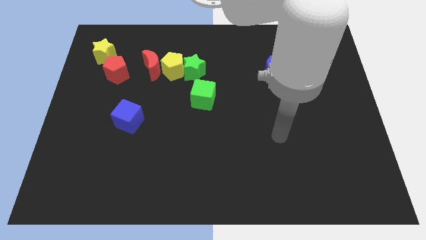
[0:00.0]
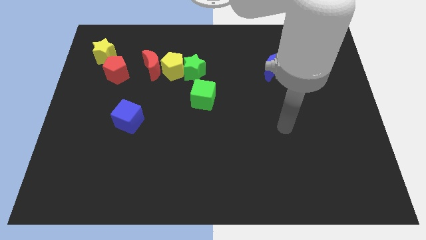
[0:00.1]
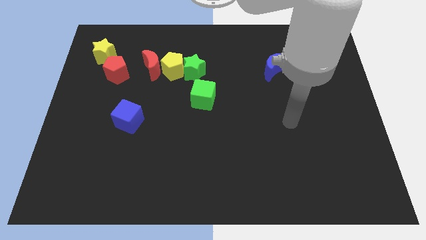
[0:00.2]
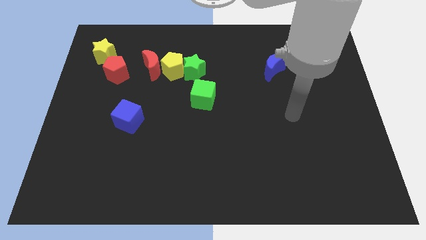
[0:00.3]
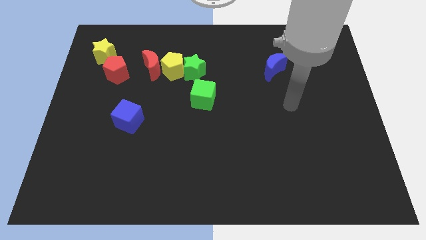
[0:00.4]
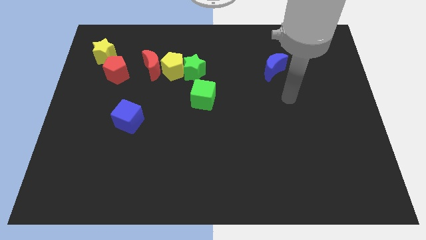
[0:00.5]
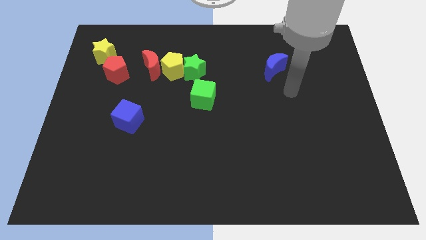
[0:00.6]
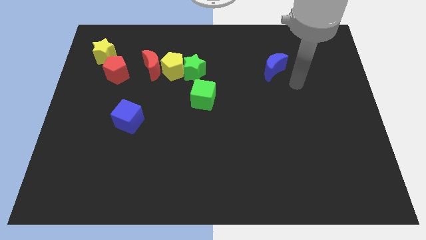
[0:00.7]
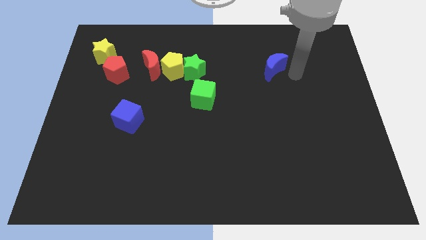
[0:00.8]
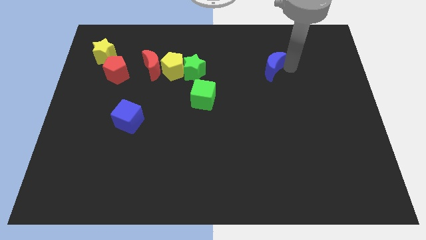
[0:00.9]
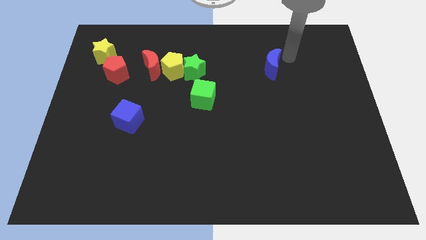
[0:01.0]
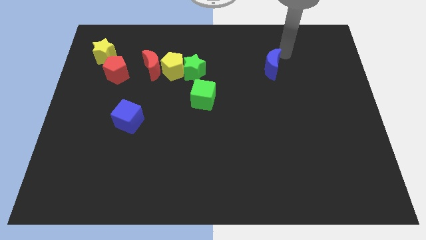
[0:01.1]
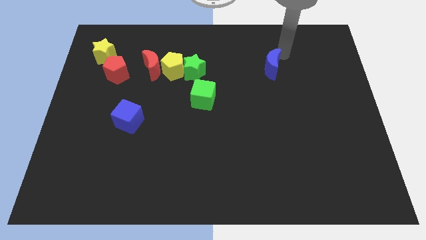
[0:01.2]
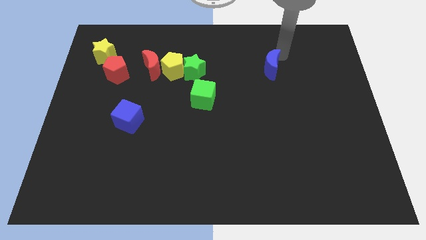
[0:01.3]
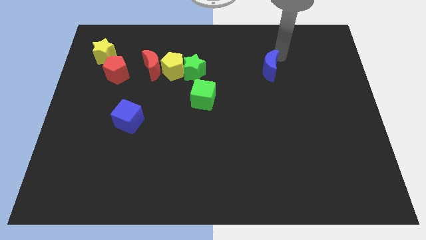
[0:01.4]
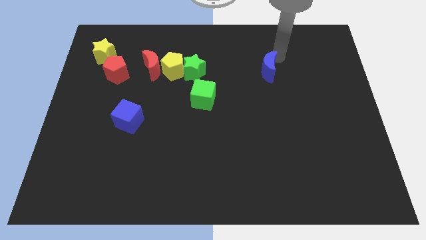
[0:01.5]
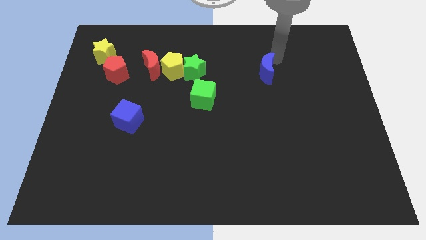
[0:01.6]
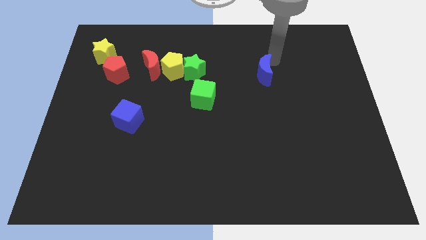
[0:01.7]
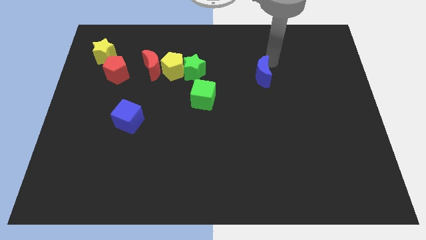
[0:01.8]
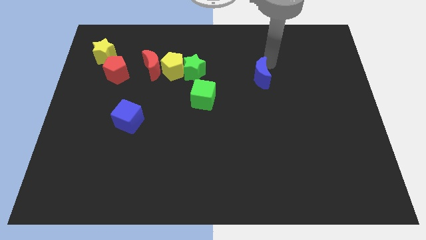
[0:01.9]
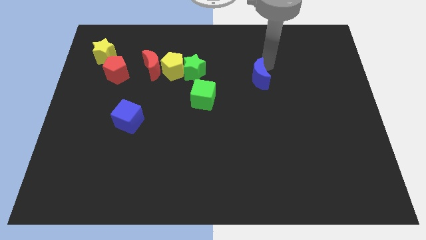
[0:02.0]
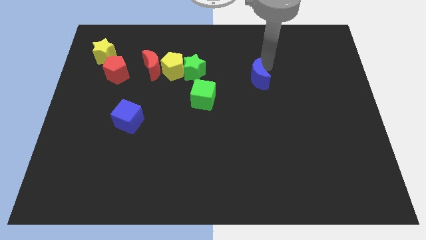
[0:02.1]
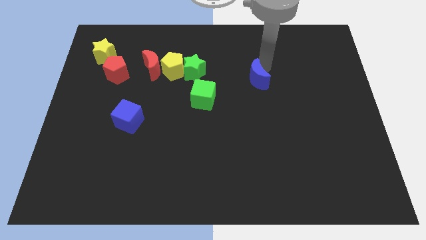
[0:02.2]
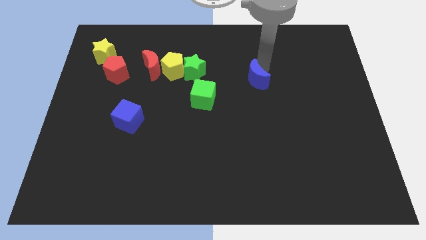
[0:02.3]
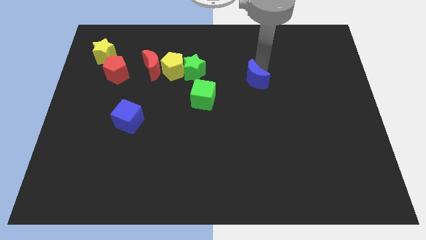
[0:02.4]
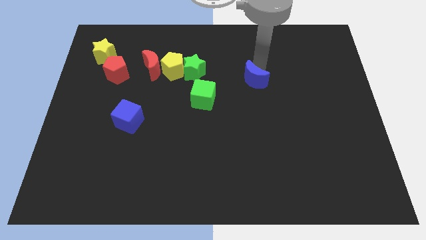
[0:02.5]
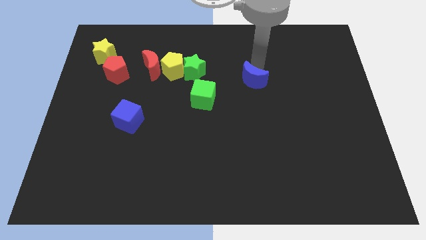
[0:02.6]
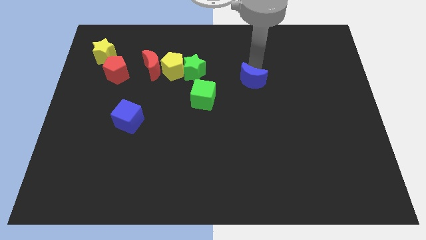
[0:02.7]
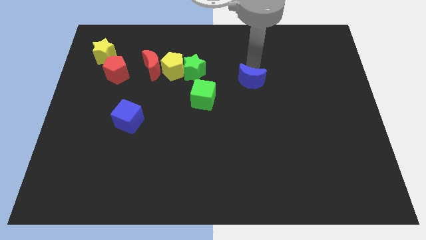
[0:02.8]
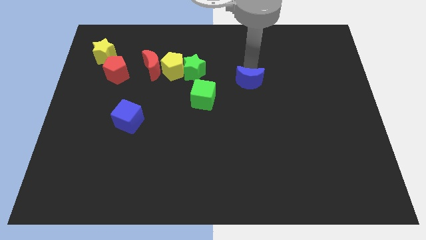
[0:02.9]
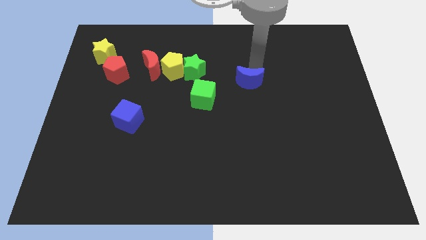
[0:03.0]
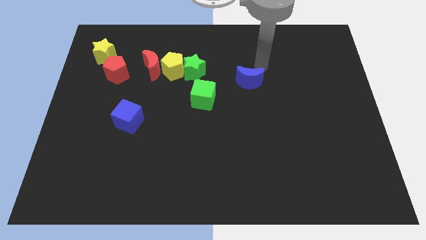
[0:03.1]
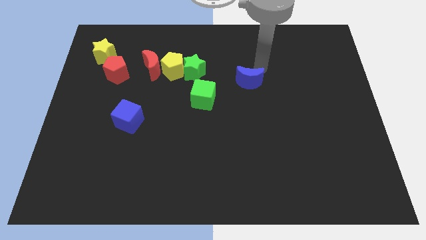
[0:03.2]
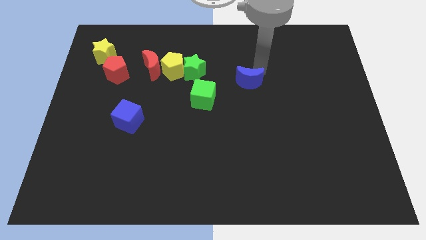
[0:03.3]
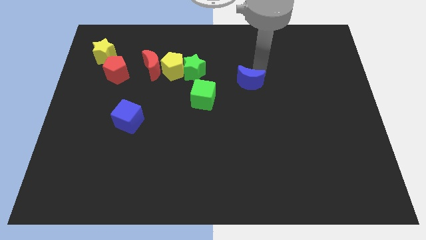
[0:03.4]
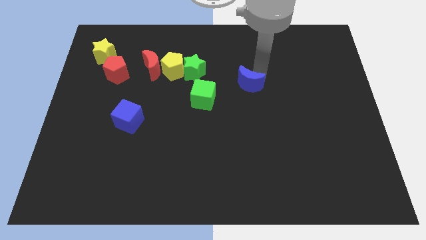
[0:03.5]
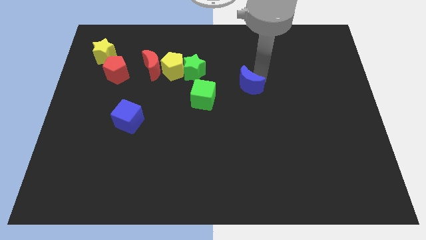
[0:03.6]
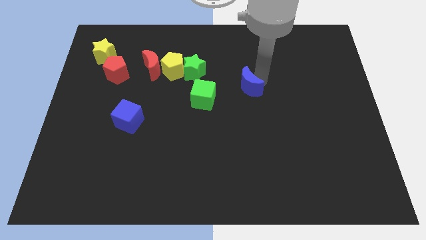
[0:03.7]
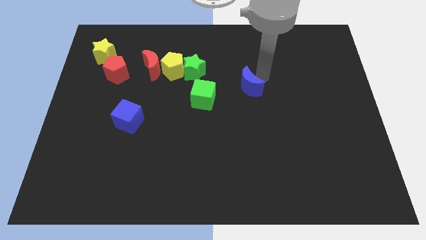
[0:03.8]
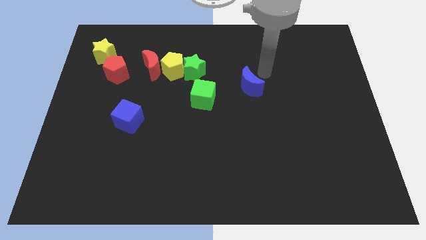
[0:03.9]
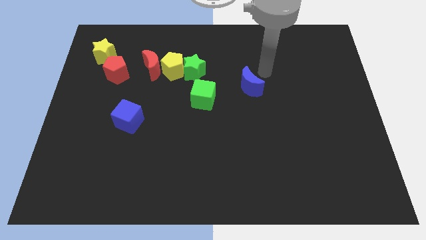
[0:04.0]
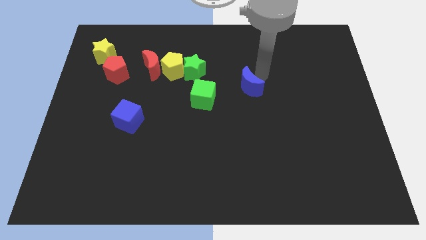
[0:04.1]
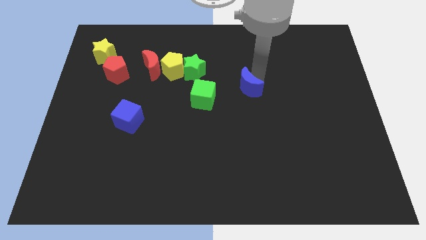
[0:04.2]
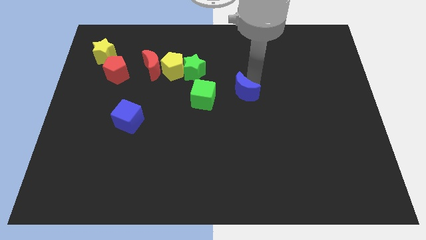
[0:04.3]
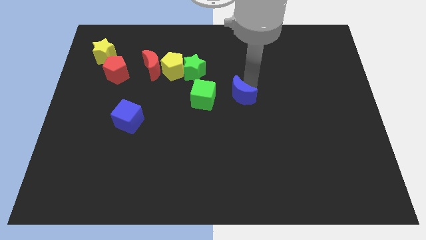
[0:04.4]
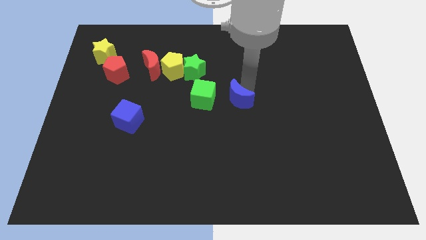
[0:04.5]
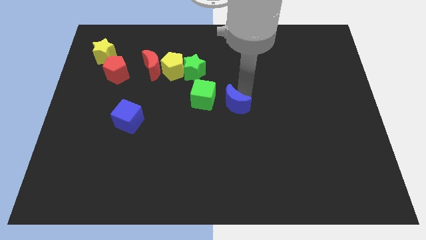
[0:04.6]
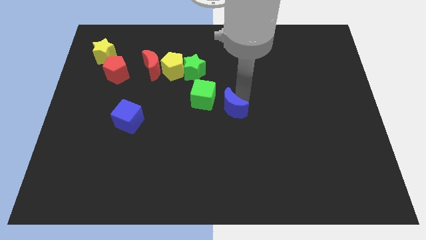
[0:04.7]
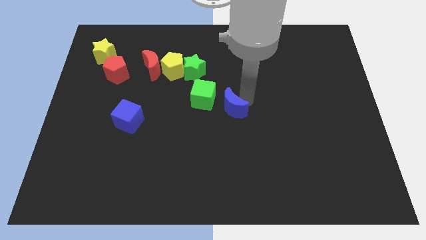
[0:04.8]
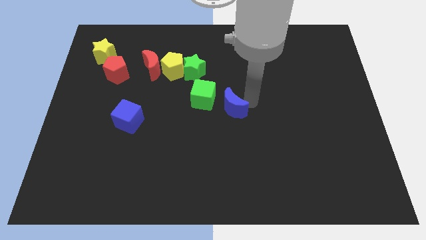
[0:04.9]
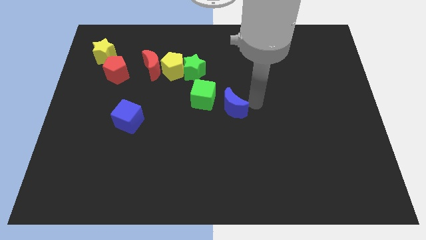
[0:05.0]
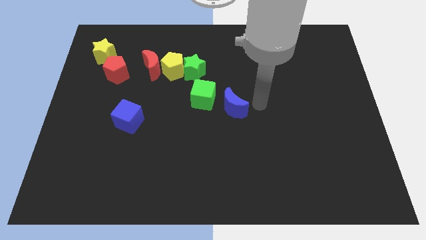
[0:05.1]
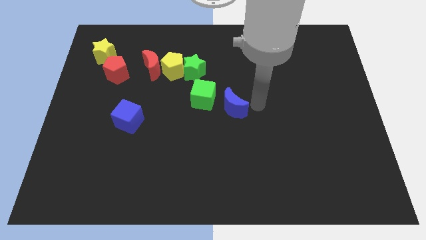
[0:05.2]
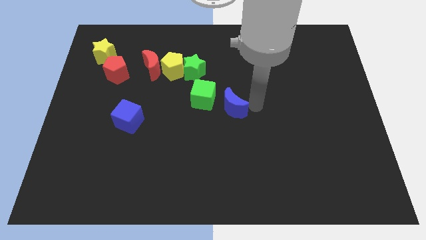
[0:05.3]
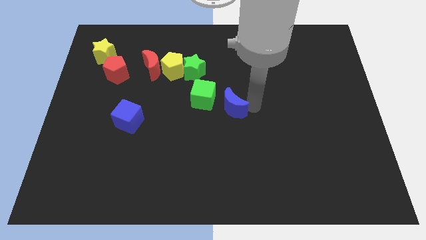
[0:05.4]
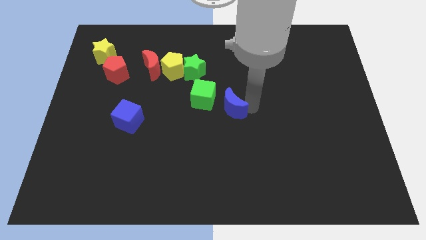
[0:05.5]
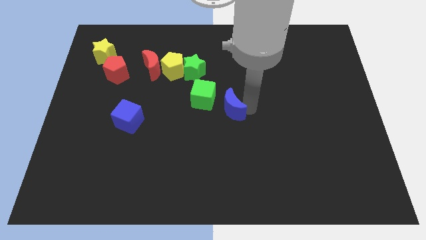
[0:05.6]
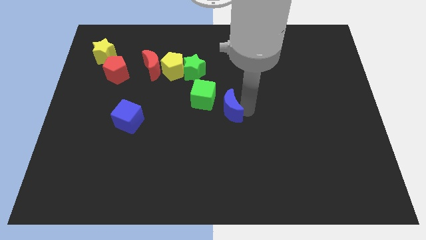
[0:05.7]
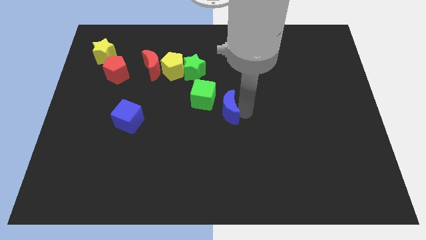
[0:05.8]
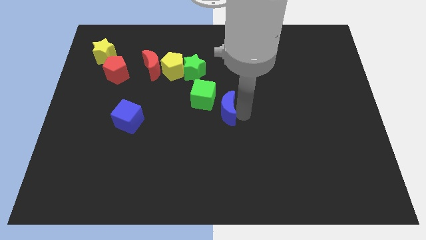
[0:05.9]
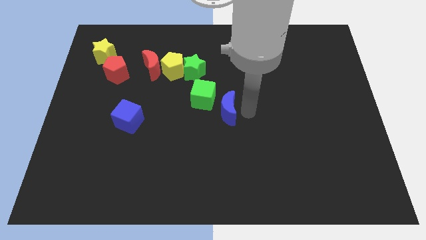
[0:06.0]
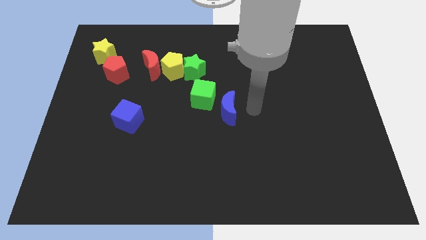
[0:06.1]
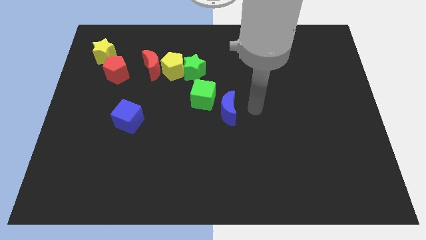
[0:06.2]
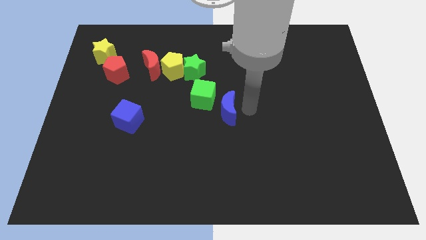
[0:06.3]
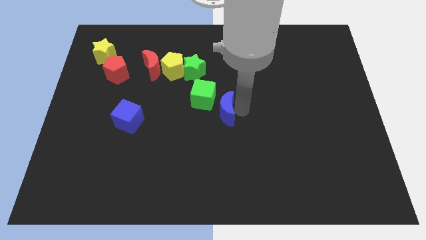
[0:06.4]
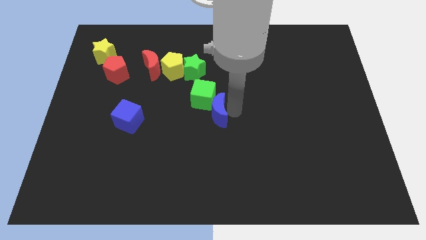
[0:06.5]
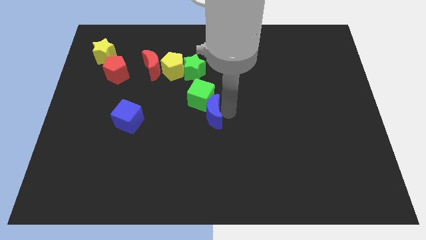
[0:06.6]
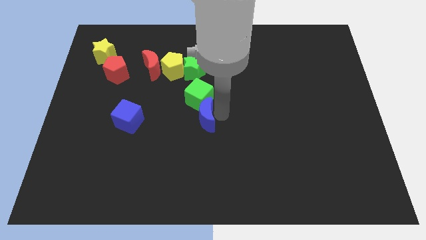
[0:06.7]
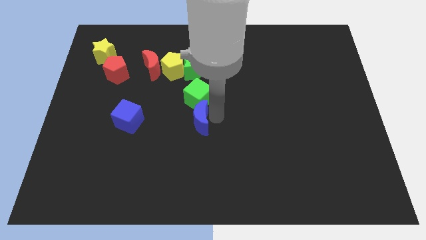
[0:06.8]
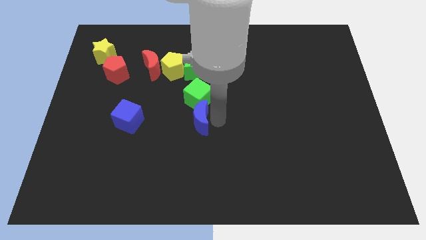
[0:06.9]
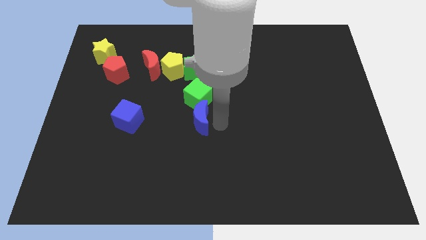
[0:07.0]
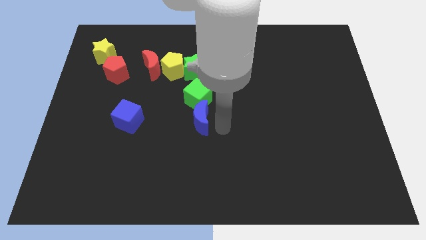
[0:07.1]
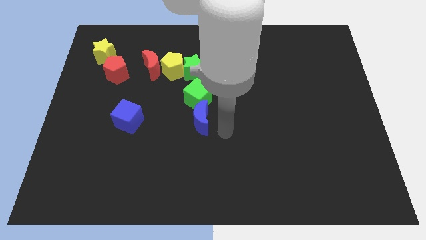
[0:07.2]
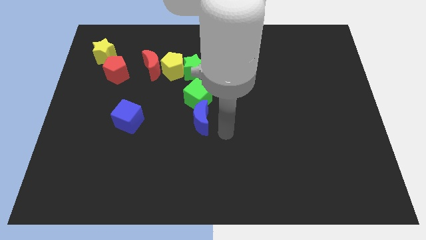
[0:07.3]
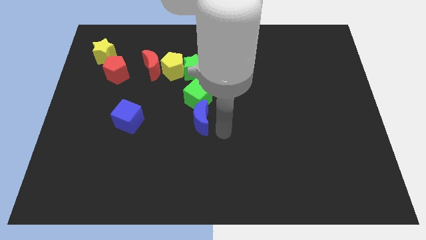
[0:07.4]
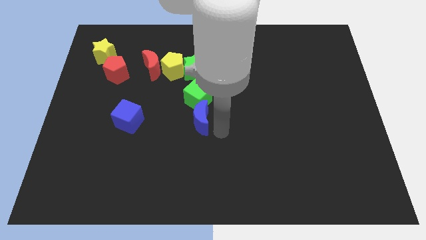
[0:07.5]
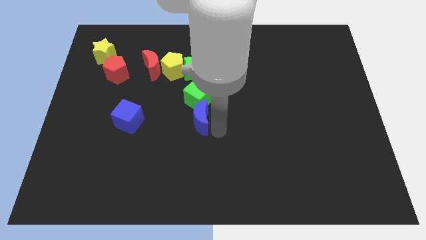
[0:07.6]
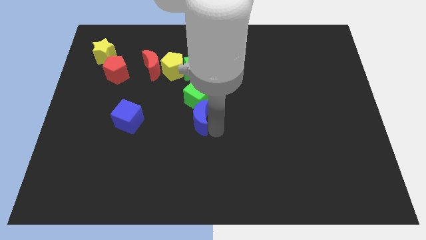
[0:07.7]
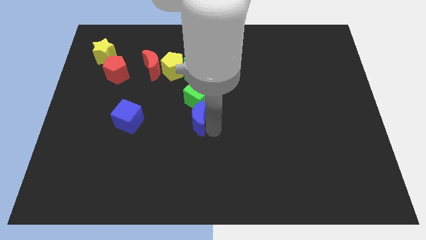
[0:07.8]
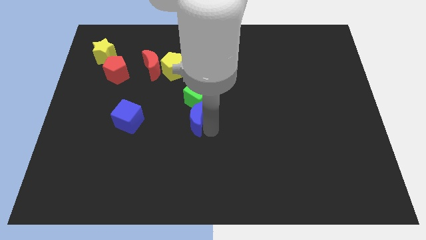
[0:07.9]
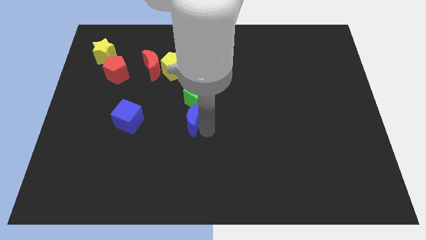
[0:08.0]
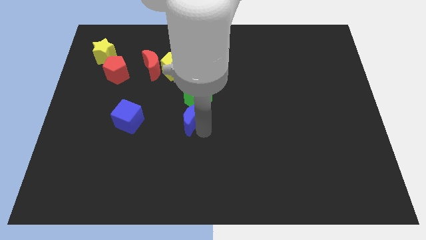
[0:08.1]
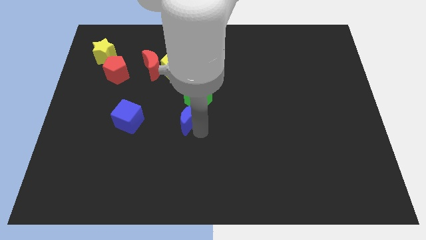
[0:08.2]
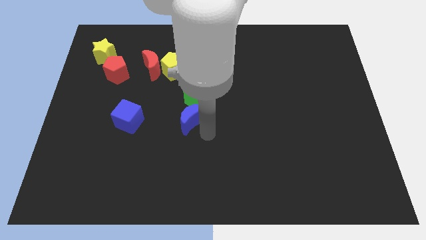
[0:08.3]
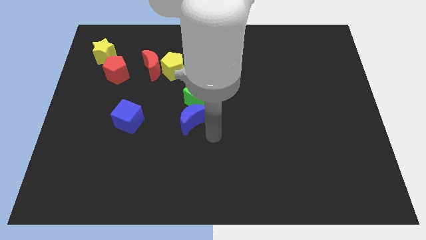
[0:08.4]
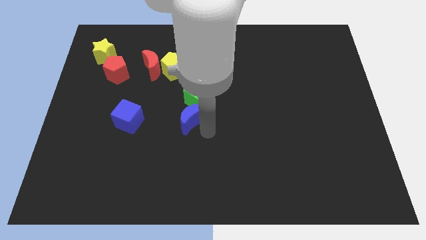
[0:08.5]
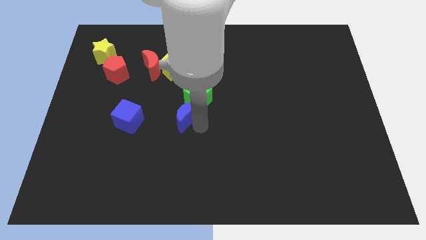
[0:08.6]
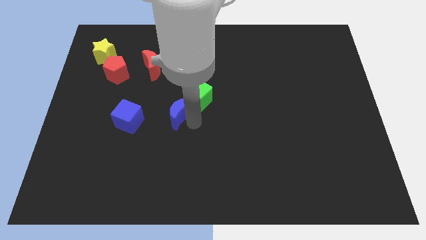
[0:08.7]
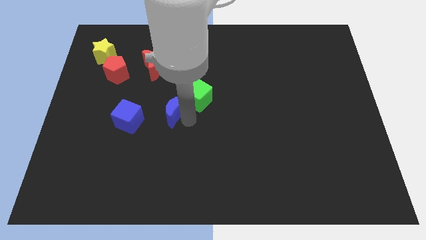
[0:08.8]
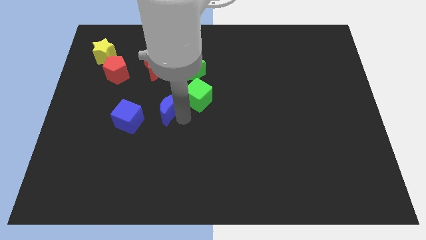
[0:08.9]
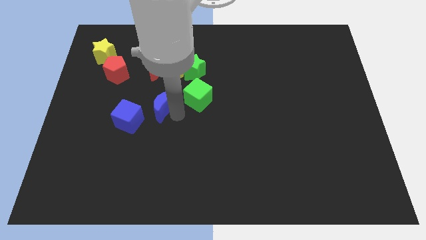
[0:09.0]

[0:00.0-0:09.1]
push the blue moon to the bottom of the red moon
